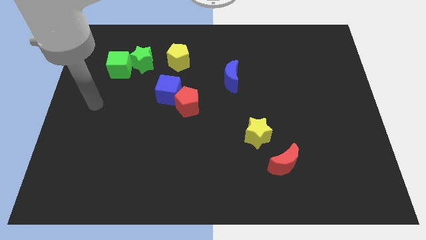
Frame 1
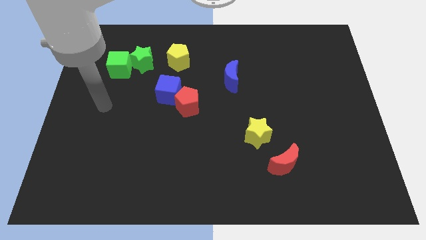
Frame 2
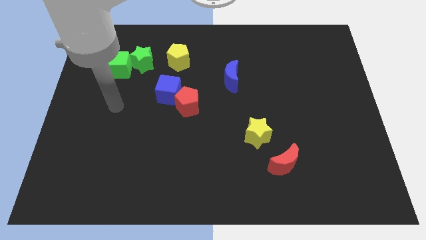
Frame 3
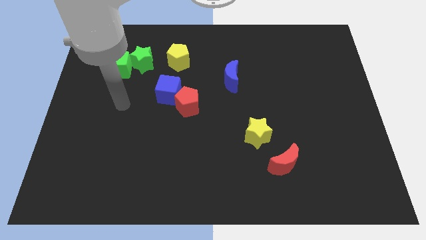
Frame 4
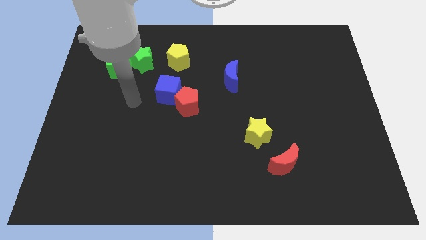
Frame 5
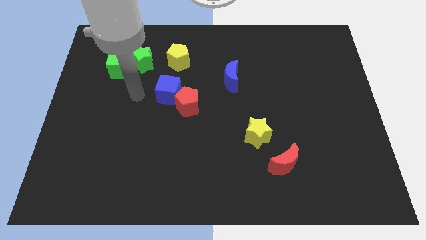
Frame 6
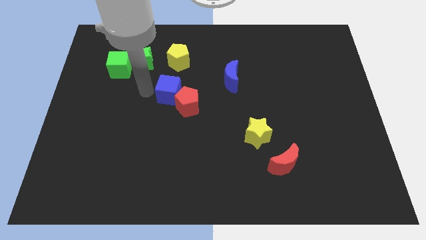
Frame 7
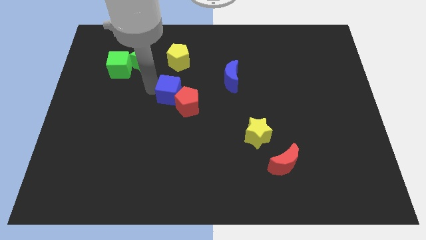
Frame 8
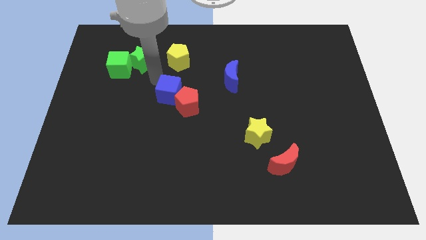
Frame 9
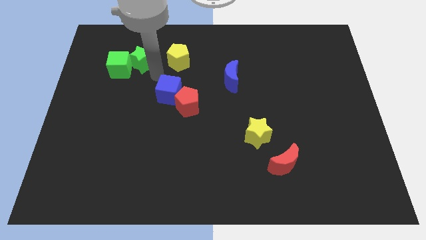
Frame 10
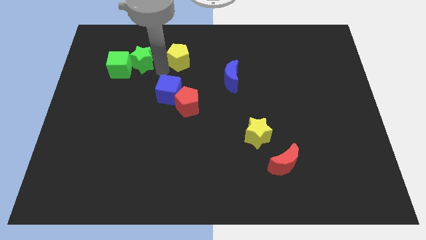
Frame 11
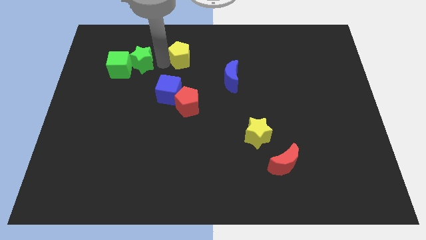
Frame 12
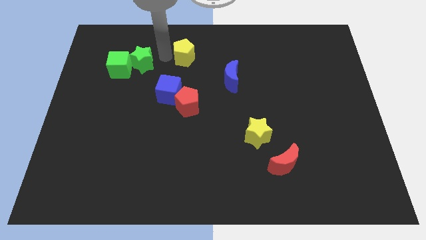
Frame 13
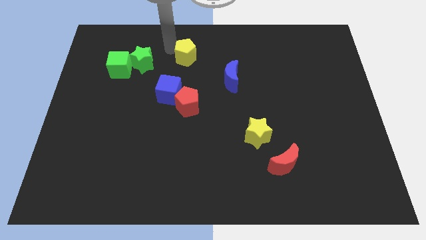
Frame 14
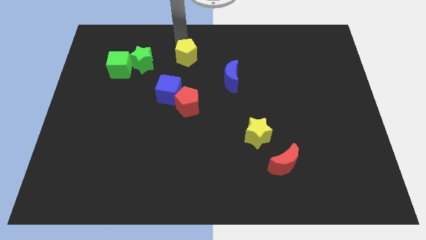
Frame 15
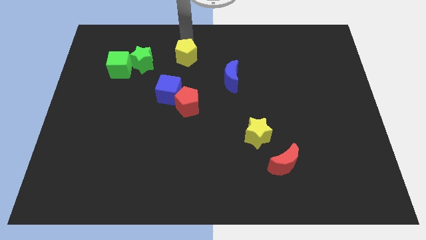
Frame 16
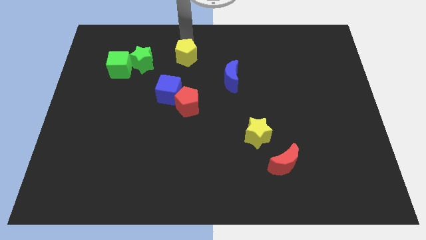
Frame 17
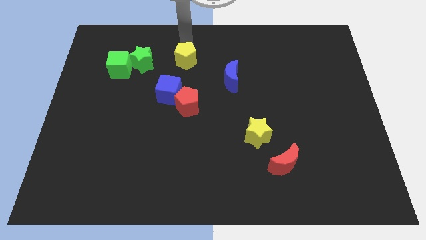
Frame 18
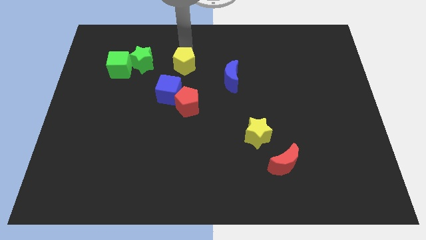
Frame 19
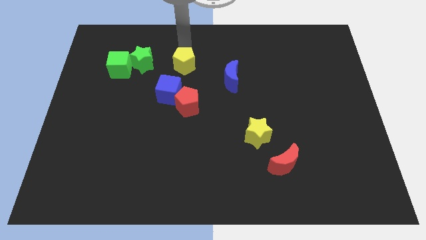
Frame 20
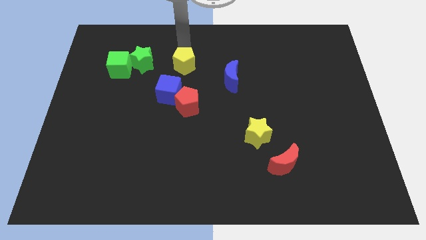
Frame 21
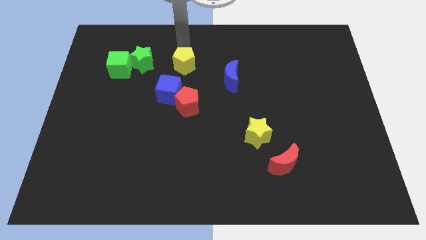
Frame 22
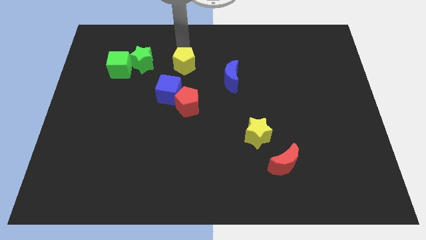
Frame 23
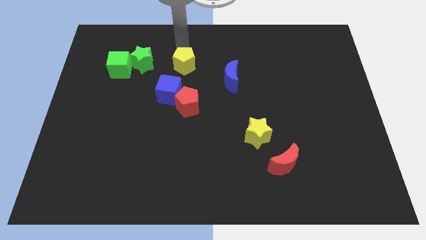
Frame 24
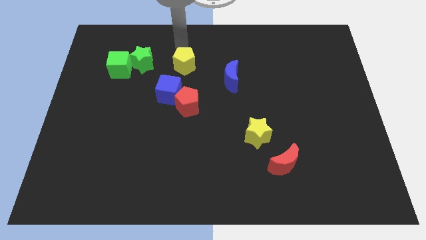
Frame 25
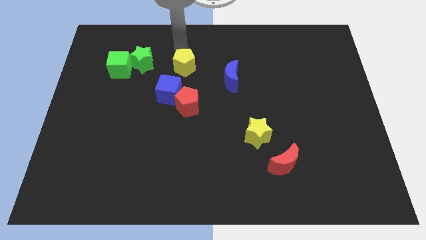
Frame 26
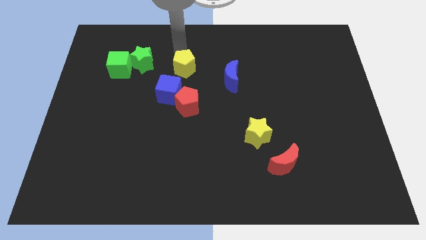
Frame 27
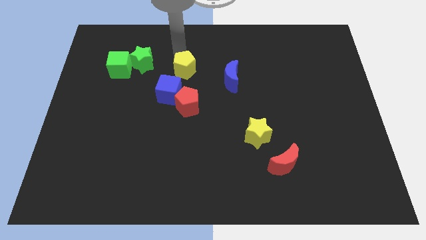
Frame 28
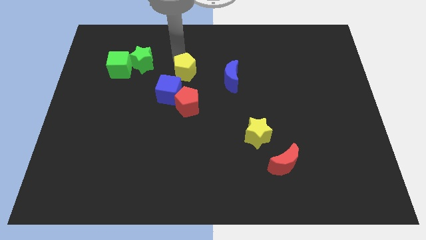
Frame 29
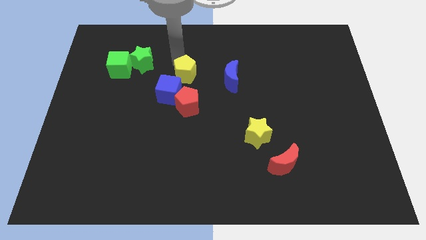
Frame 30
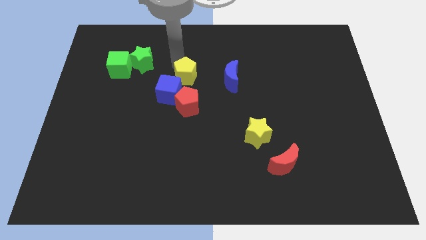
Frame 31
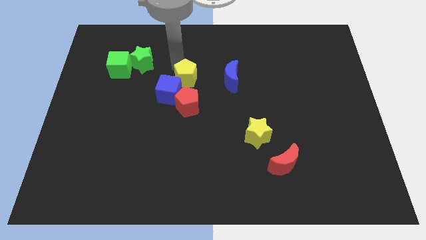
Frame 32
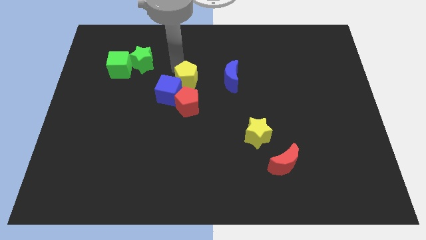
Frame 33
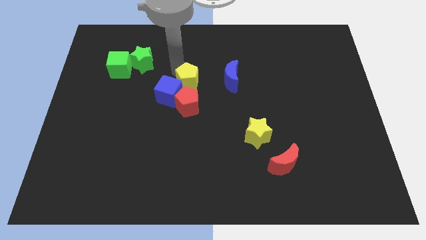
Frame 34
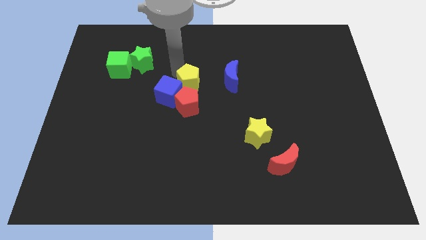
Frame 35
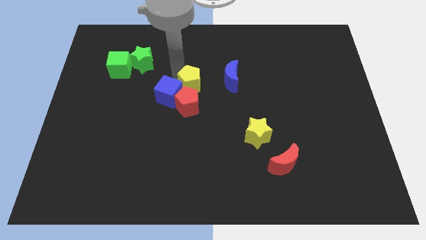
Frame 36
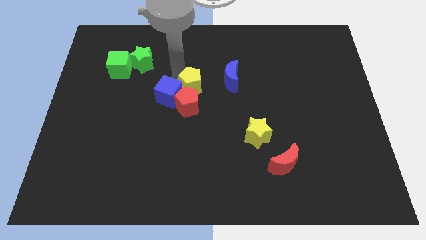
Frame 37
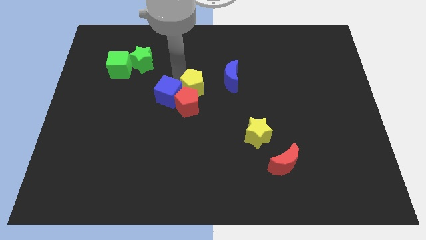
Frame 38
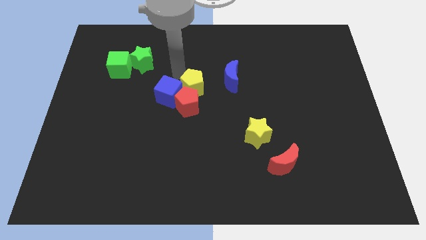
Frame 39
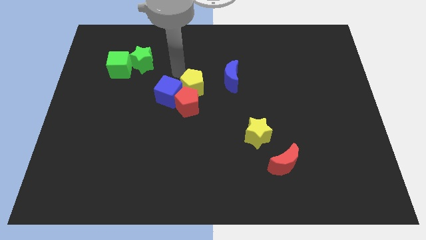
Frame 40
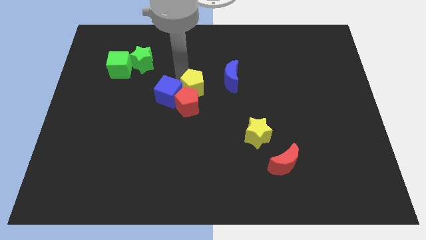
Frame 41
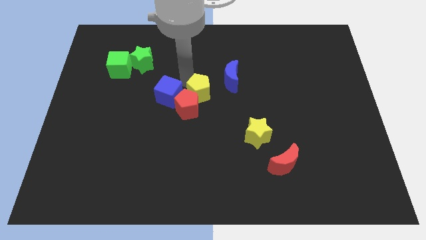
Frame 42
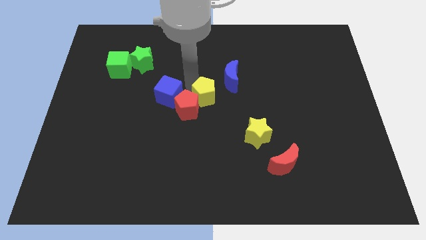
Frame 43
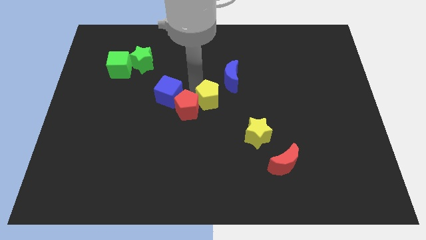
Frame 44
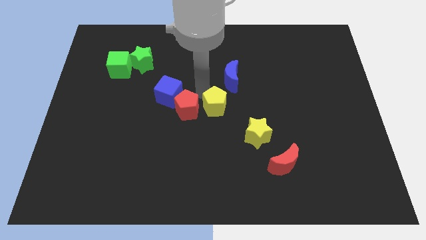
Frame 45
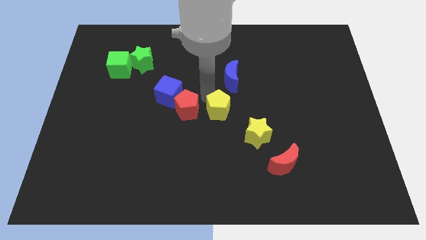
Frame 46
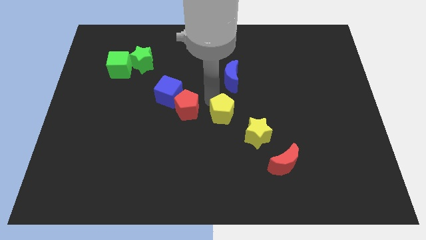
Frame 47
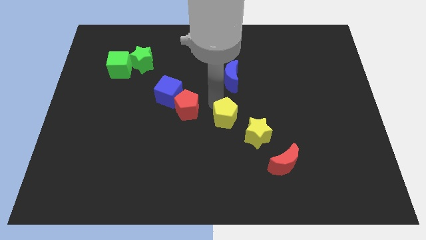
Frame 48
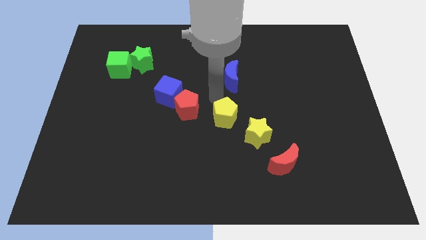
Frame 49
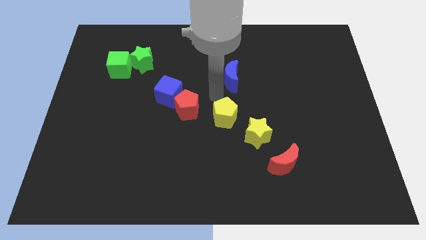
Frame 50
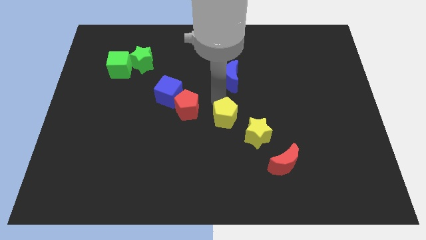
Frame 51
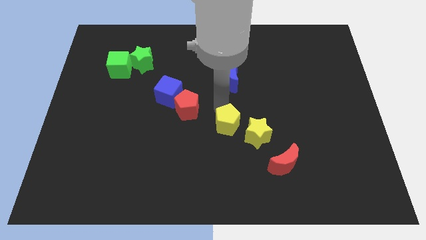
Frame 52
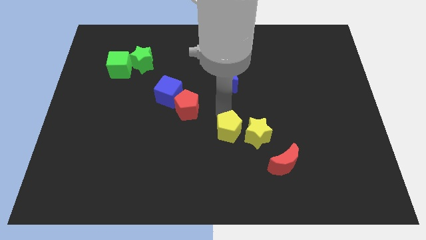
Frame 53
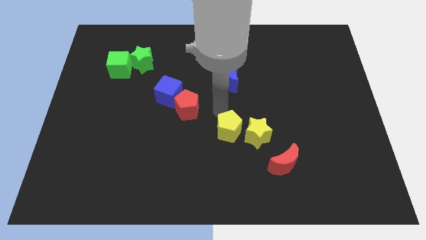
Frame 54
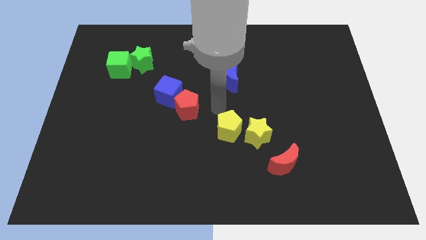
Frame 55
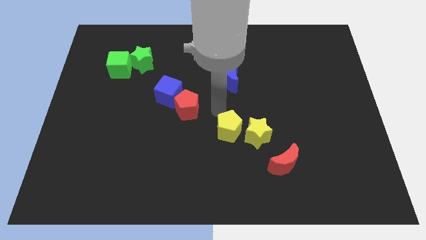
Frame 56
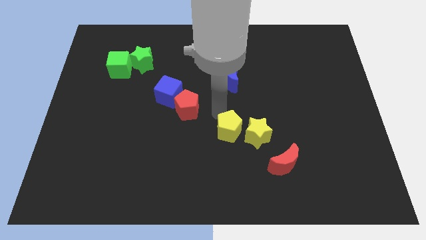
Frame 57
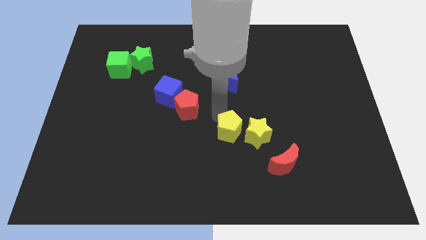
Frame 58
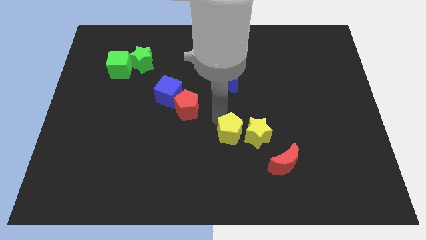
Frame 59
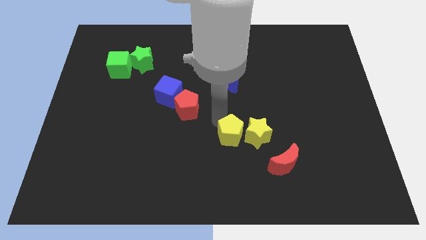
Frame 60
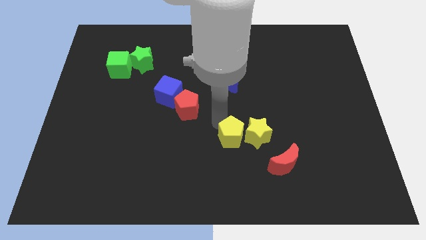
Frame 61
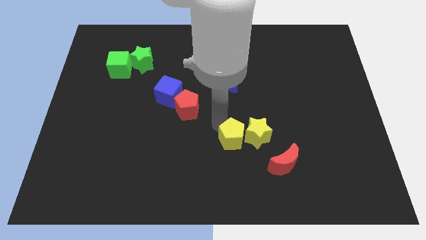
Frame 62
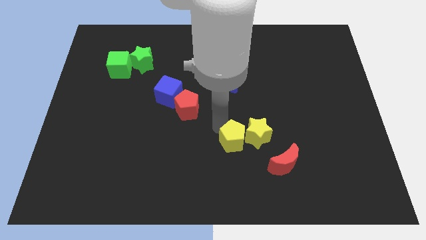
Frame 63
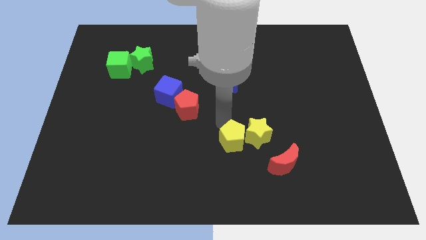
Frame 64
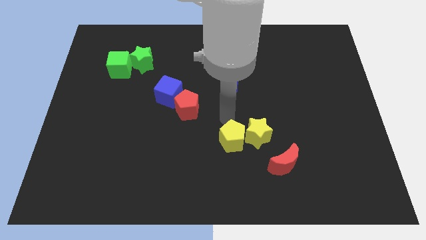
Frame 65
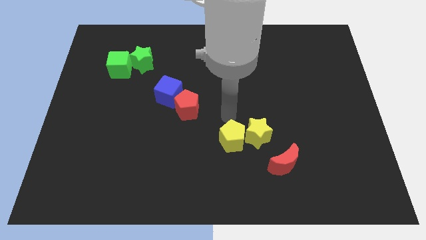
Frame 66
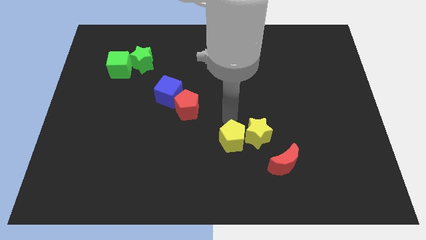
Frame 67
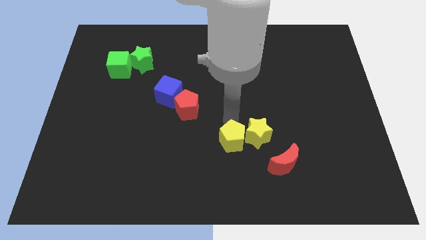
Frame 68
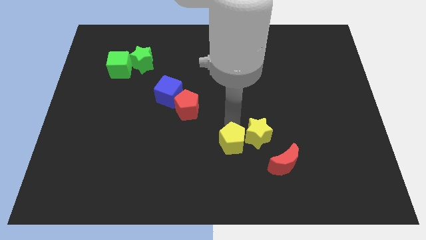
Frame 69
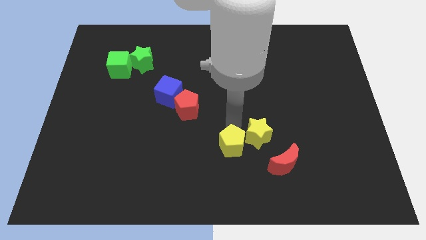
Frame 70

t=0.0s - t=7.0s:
move the yellow pentagon left of the red moon

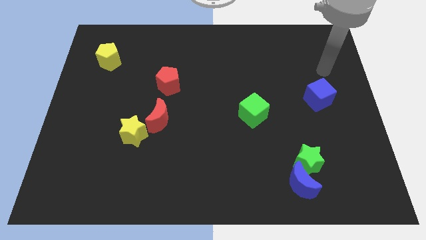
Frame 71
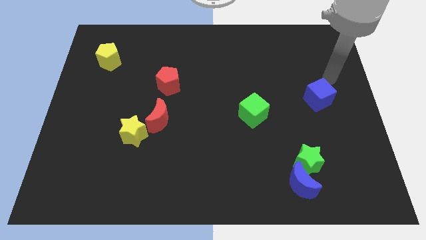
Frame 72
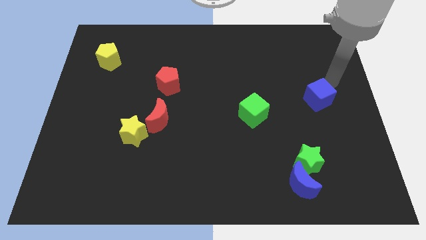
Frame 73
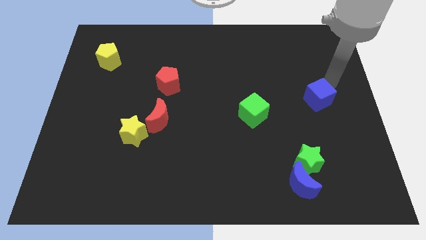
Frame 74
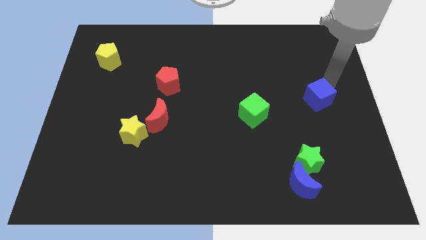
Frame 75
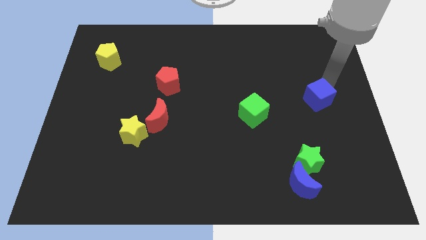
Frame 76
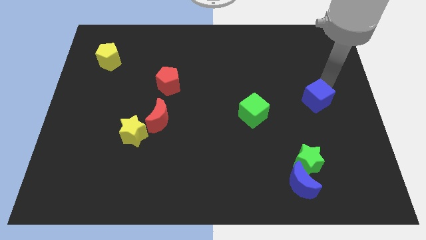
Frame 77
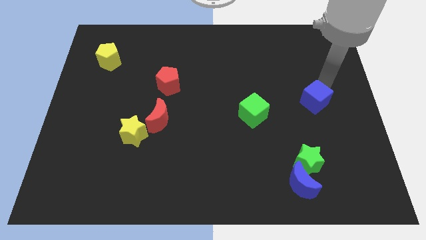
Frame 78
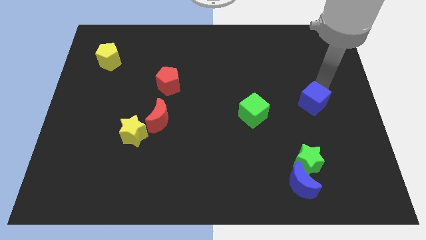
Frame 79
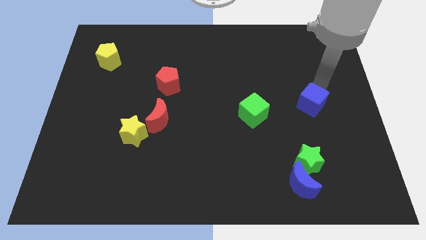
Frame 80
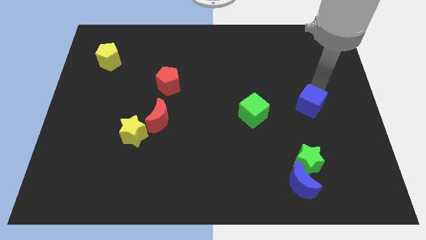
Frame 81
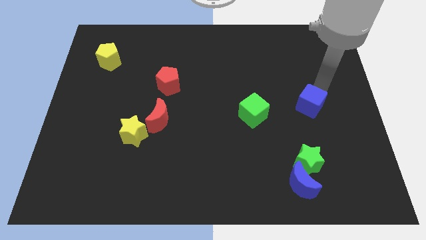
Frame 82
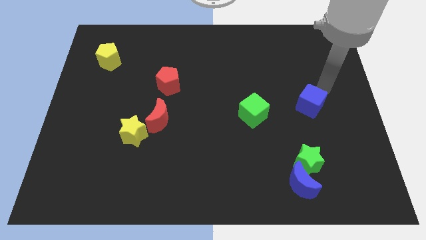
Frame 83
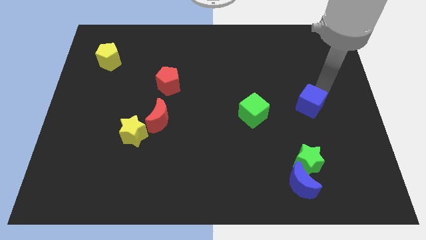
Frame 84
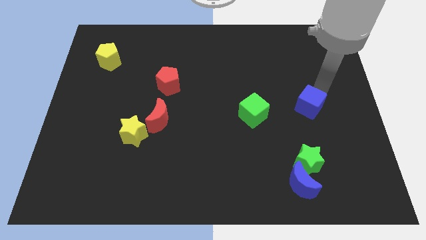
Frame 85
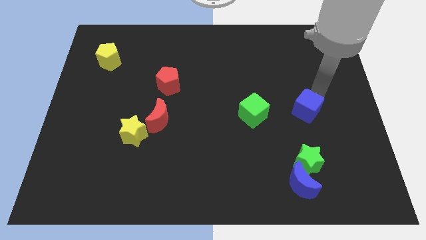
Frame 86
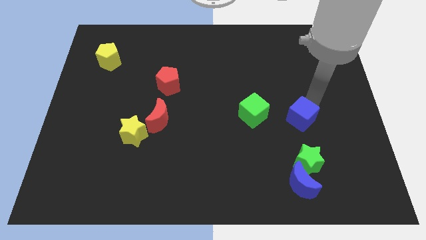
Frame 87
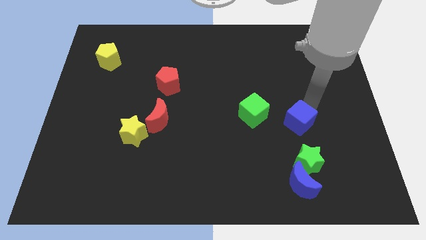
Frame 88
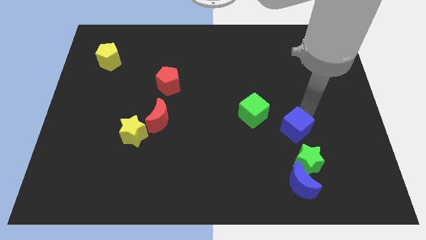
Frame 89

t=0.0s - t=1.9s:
put the blue cube to the bottom right of the green cube
